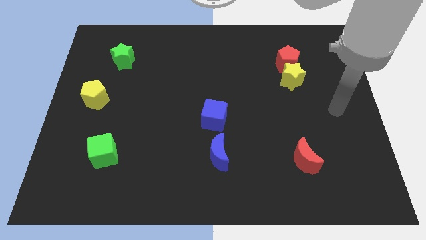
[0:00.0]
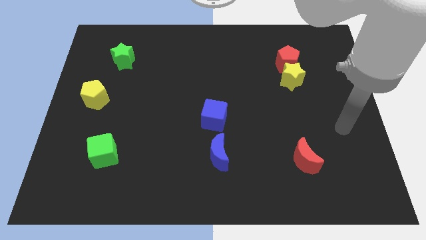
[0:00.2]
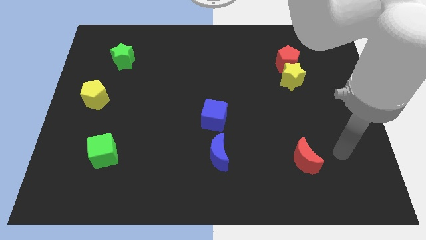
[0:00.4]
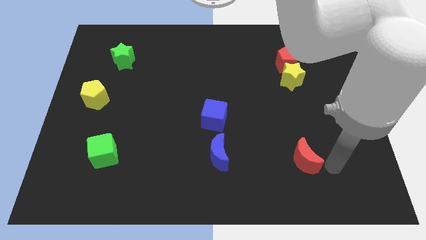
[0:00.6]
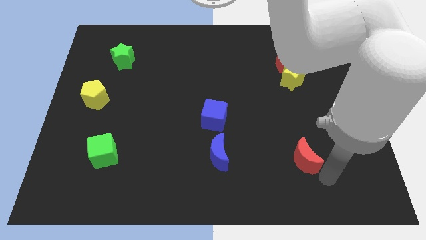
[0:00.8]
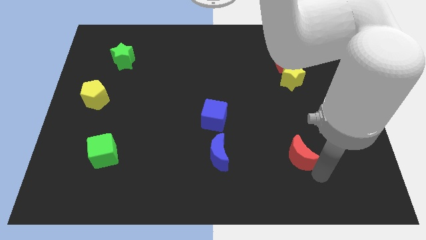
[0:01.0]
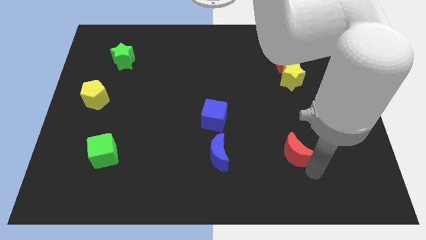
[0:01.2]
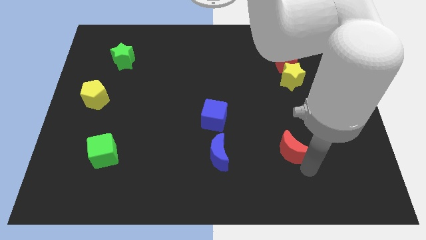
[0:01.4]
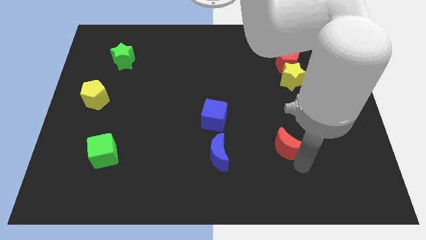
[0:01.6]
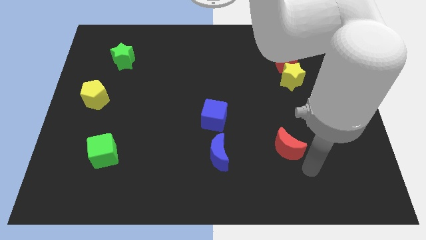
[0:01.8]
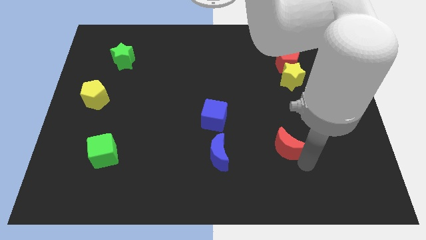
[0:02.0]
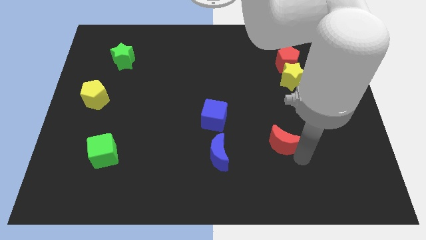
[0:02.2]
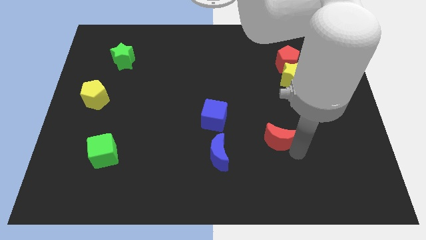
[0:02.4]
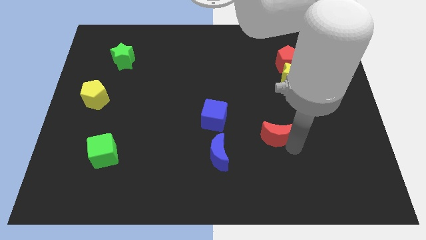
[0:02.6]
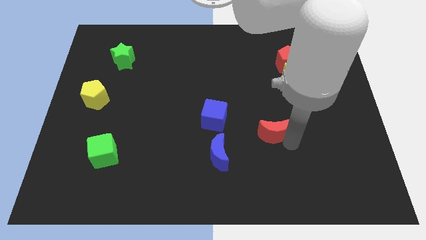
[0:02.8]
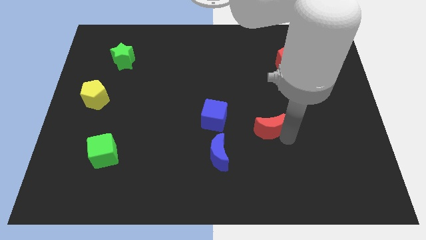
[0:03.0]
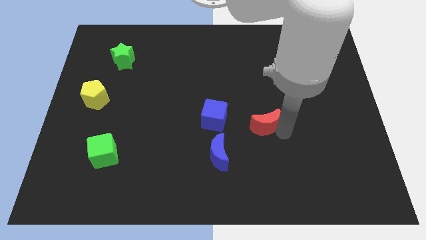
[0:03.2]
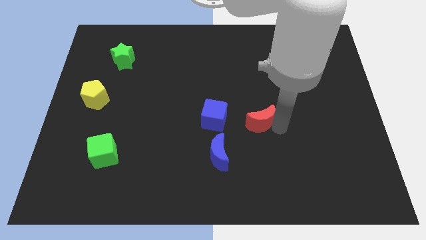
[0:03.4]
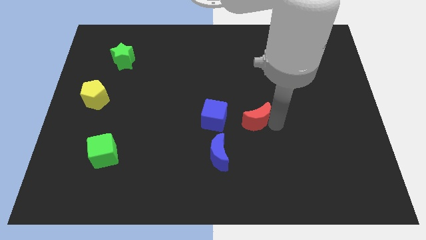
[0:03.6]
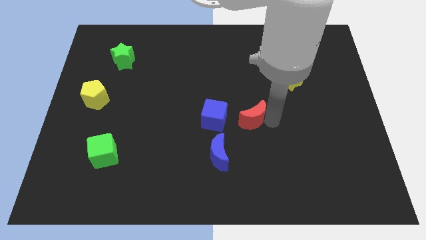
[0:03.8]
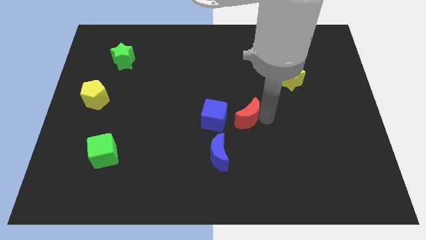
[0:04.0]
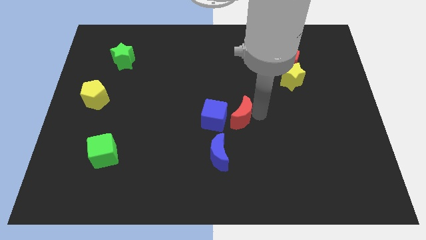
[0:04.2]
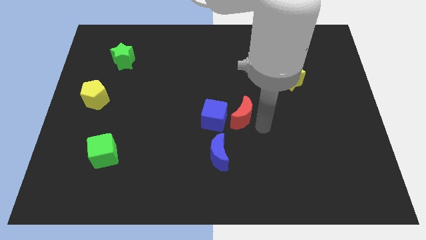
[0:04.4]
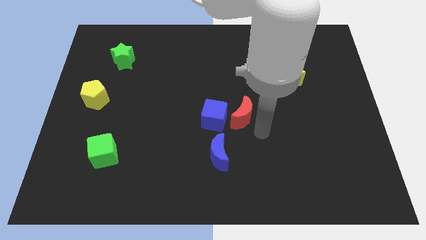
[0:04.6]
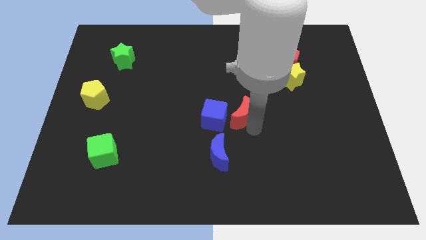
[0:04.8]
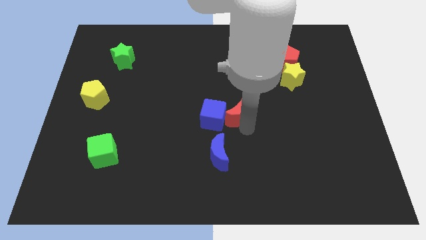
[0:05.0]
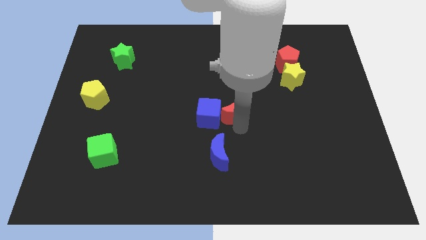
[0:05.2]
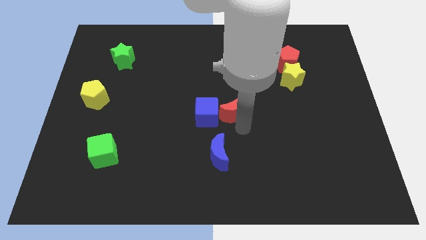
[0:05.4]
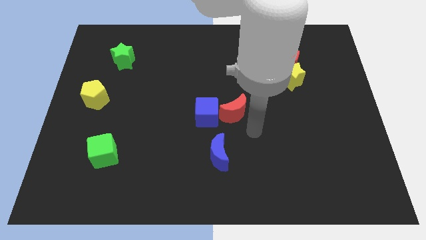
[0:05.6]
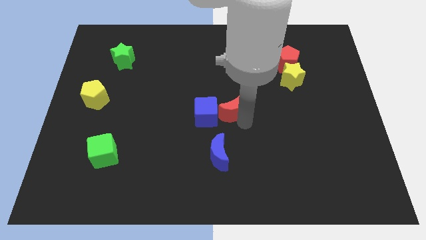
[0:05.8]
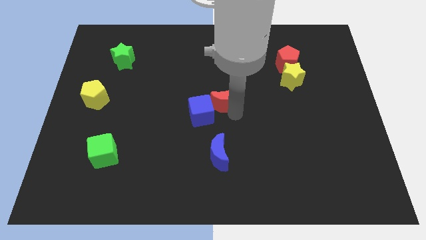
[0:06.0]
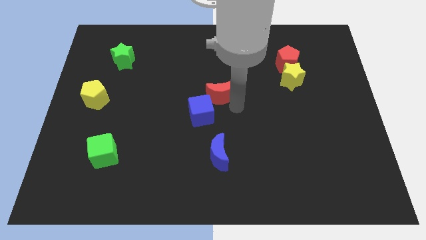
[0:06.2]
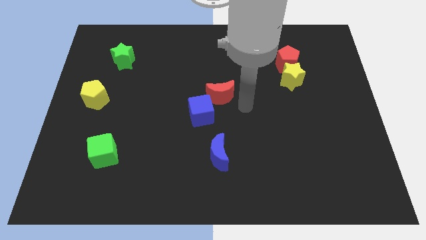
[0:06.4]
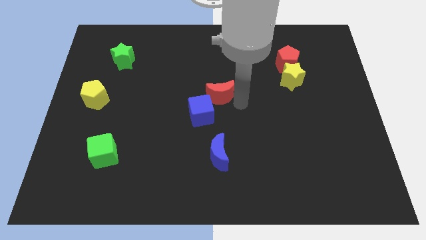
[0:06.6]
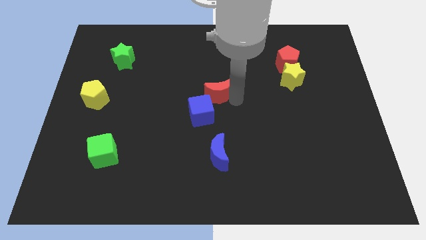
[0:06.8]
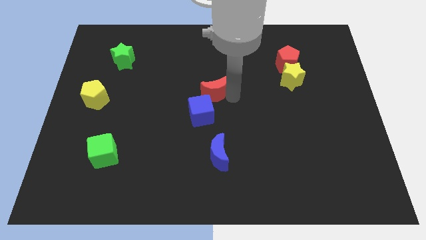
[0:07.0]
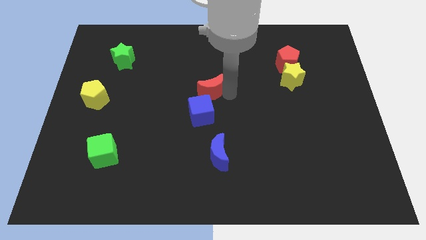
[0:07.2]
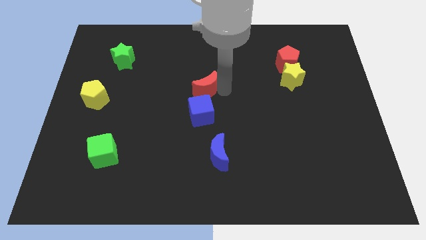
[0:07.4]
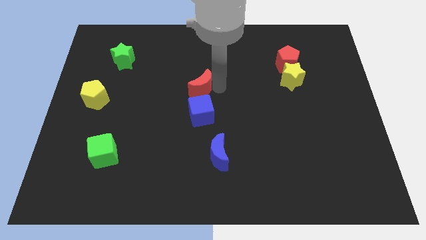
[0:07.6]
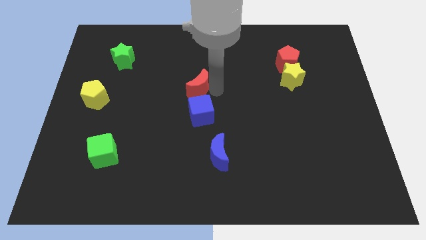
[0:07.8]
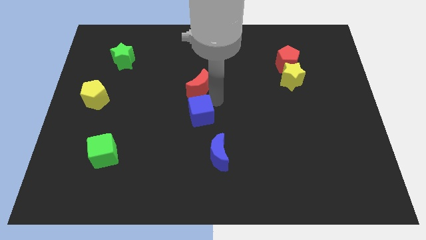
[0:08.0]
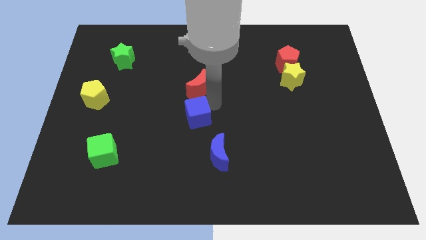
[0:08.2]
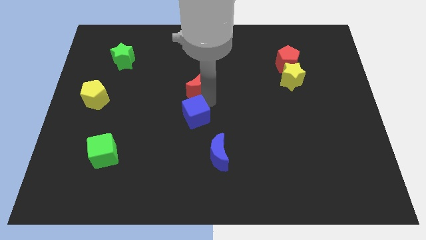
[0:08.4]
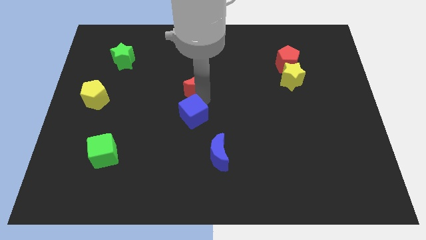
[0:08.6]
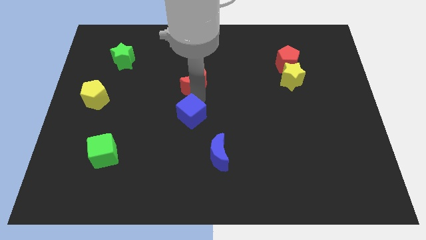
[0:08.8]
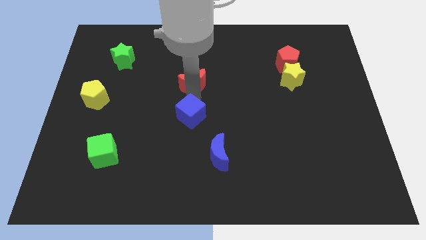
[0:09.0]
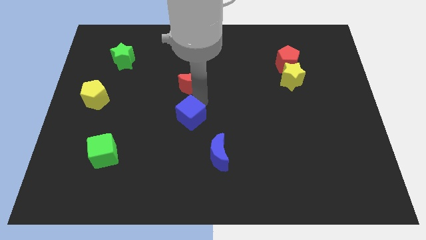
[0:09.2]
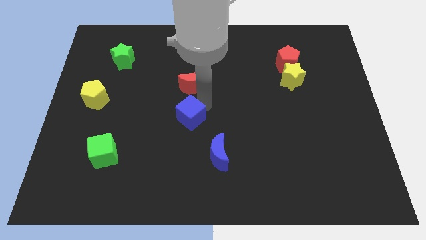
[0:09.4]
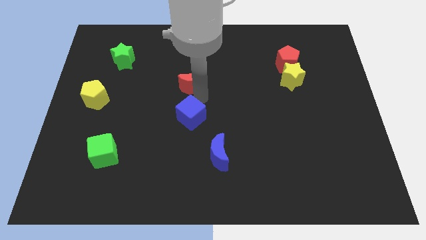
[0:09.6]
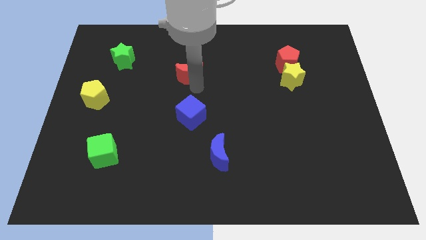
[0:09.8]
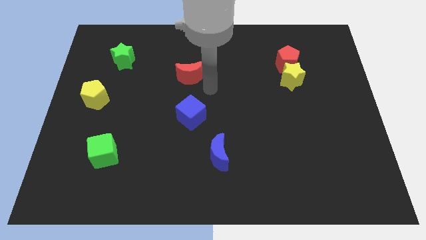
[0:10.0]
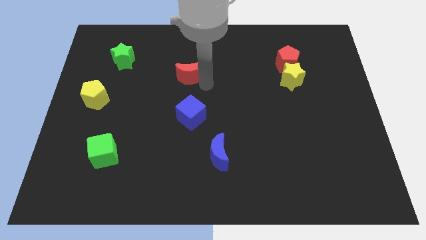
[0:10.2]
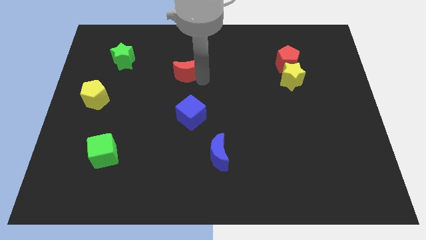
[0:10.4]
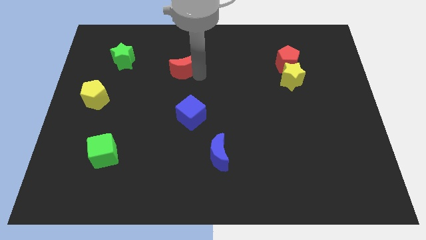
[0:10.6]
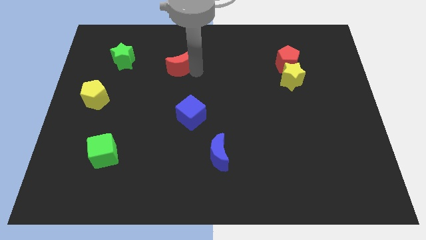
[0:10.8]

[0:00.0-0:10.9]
put the red moon right of the green star
